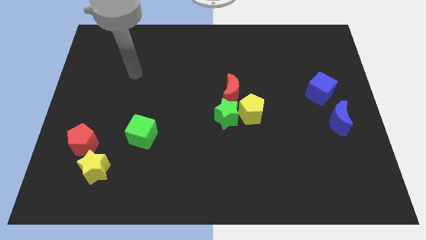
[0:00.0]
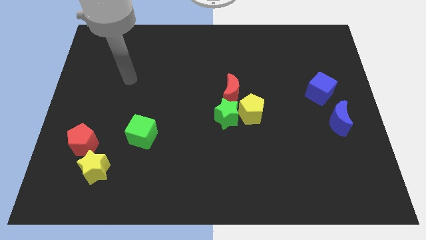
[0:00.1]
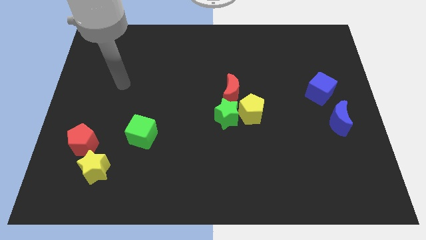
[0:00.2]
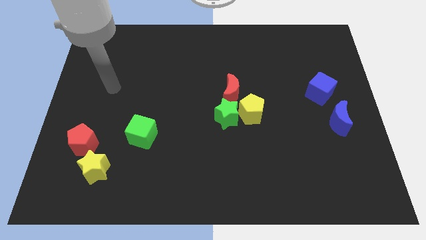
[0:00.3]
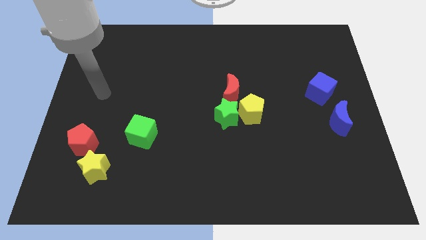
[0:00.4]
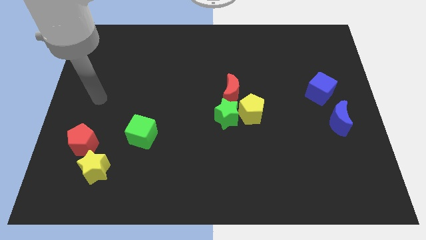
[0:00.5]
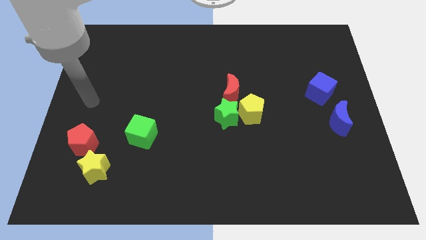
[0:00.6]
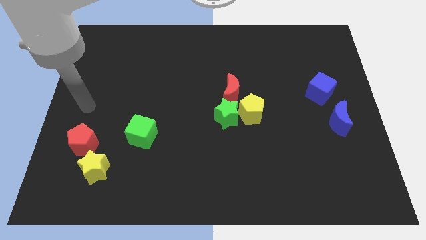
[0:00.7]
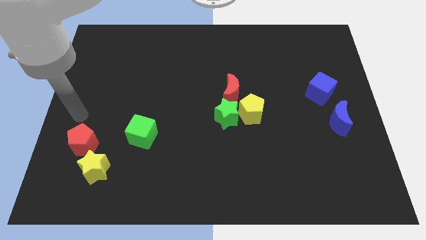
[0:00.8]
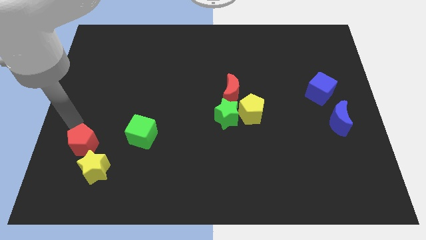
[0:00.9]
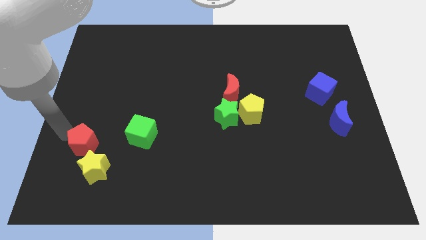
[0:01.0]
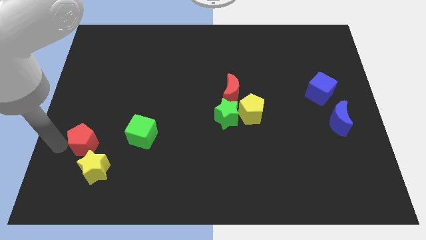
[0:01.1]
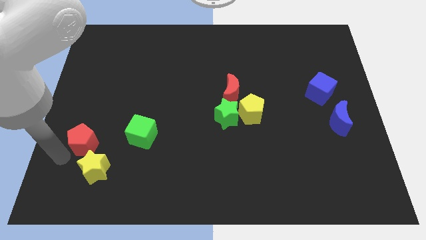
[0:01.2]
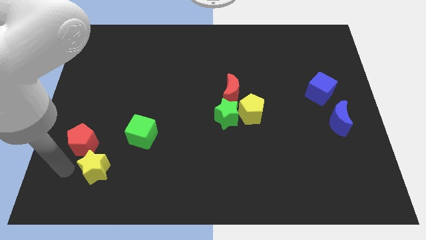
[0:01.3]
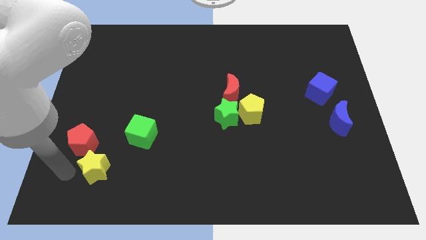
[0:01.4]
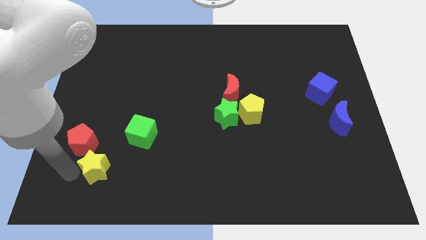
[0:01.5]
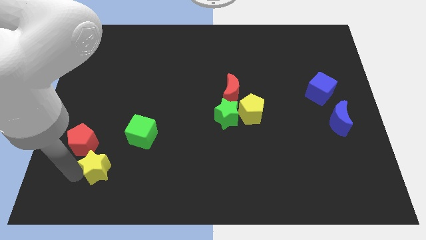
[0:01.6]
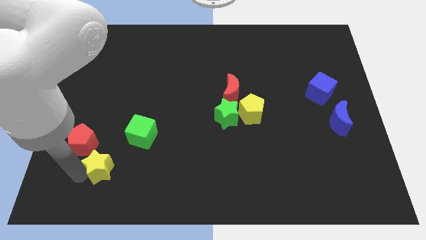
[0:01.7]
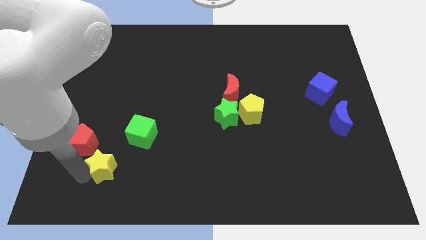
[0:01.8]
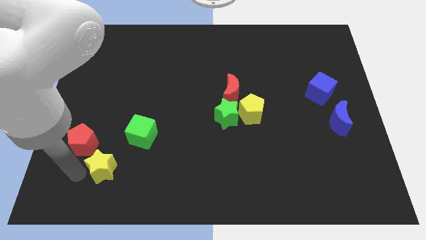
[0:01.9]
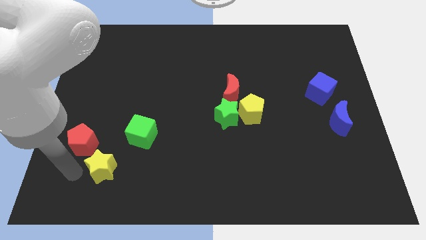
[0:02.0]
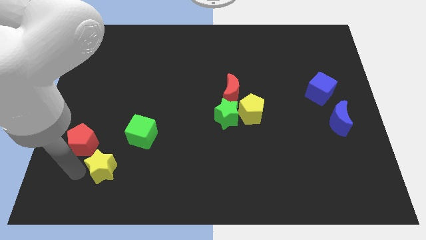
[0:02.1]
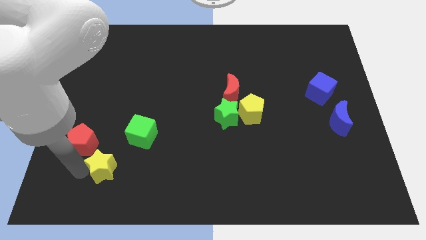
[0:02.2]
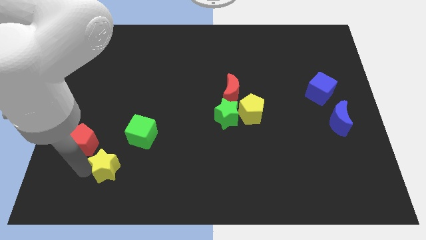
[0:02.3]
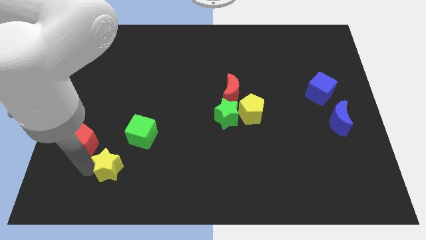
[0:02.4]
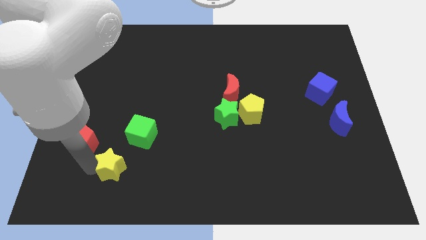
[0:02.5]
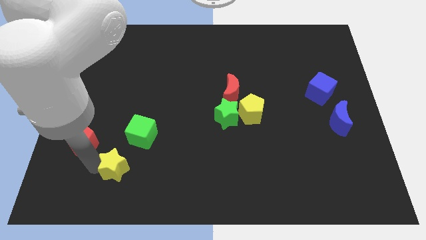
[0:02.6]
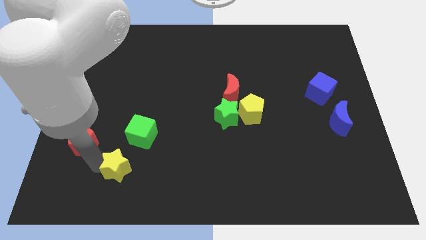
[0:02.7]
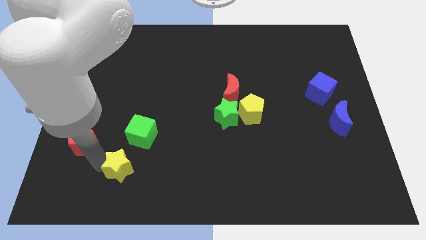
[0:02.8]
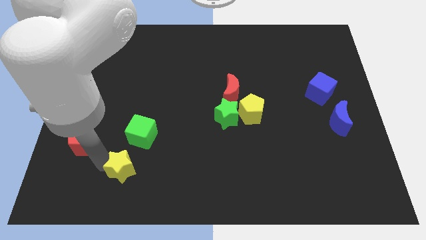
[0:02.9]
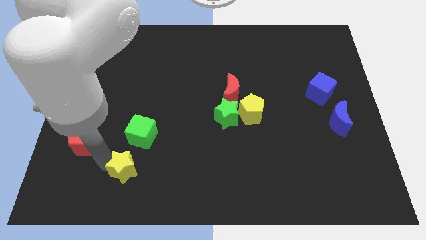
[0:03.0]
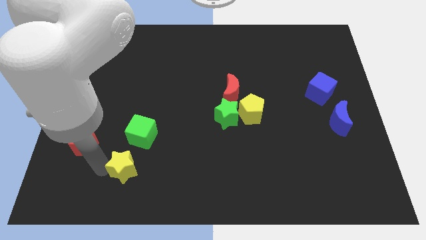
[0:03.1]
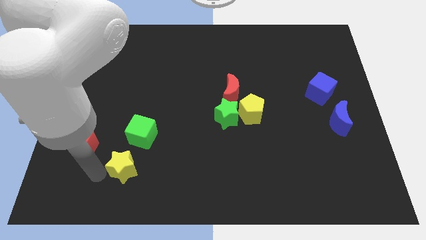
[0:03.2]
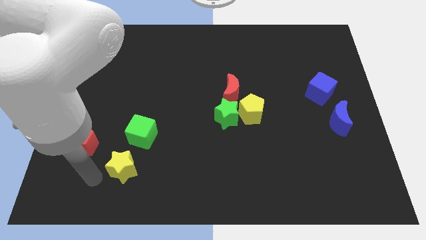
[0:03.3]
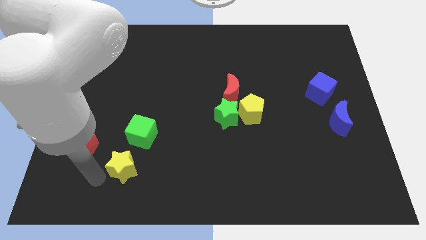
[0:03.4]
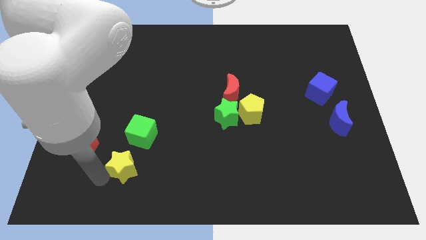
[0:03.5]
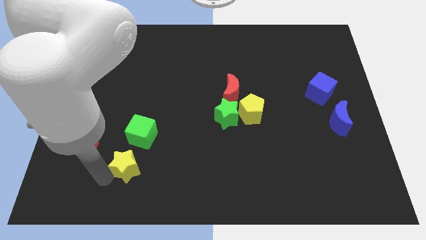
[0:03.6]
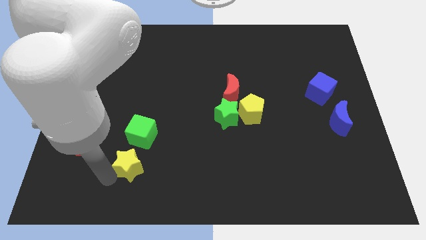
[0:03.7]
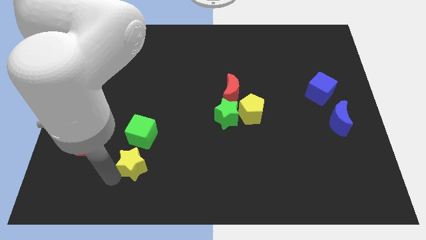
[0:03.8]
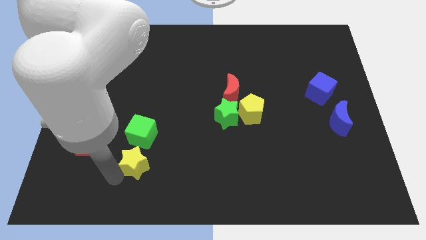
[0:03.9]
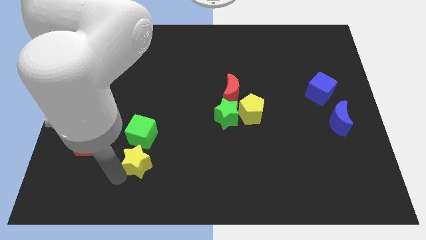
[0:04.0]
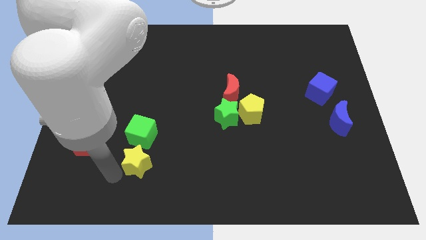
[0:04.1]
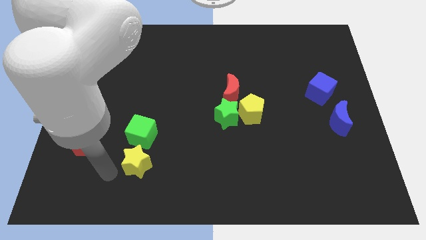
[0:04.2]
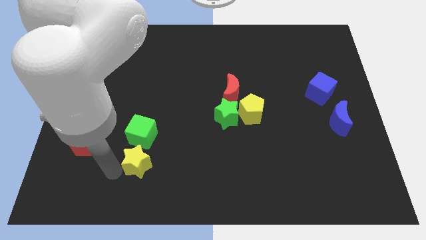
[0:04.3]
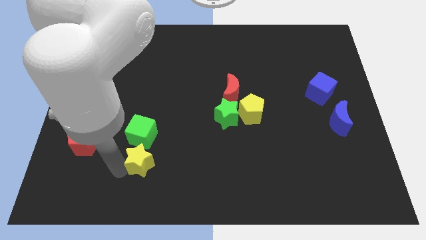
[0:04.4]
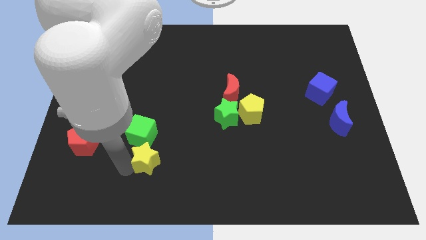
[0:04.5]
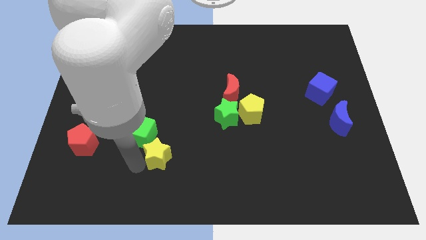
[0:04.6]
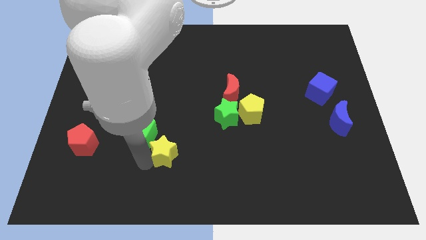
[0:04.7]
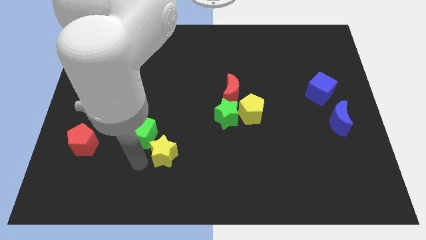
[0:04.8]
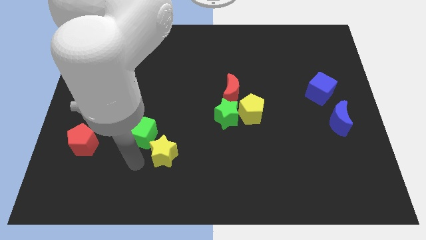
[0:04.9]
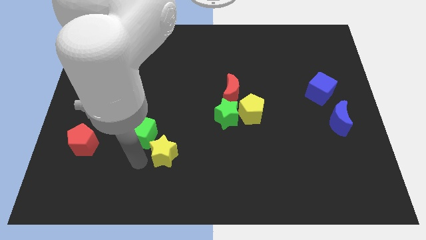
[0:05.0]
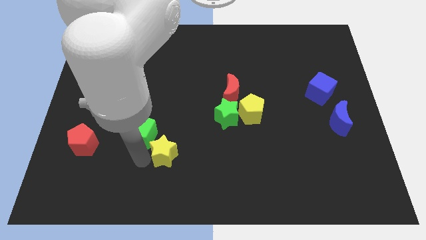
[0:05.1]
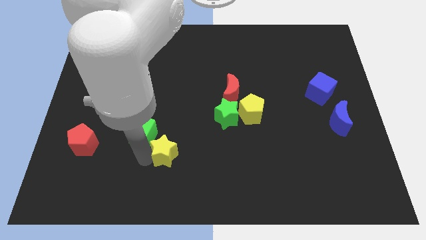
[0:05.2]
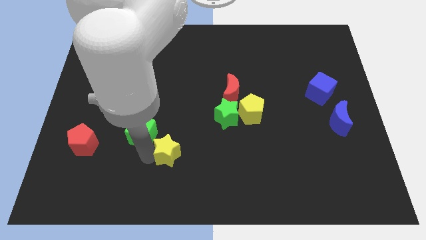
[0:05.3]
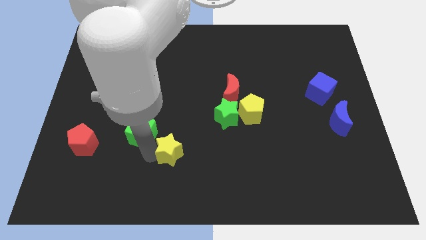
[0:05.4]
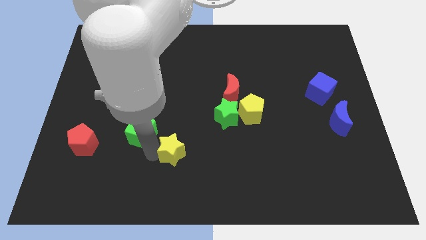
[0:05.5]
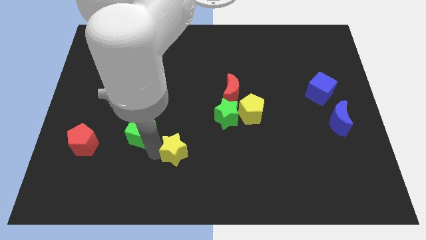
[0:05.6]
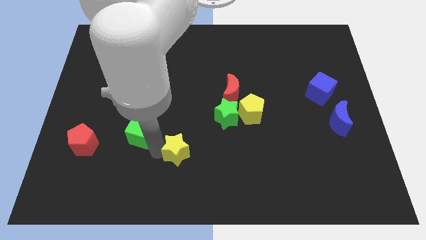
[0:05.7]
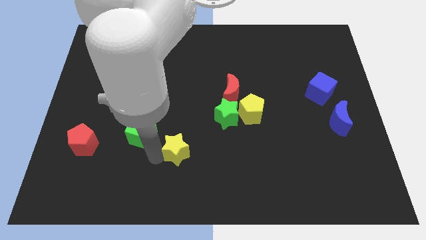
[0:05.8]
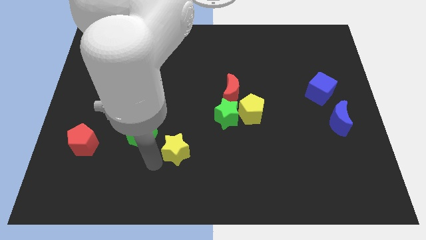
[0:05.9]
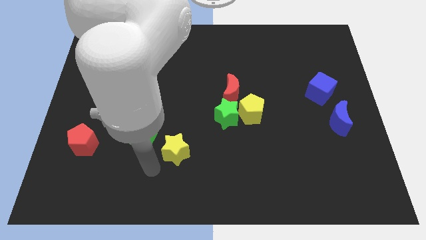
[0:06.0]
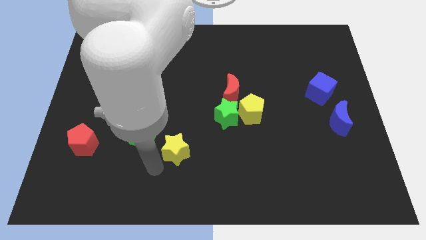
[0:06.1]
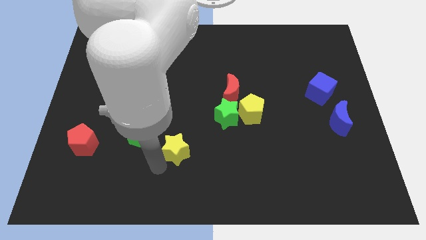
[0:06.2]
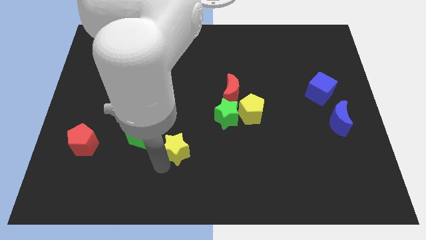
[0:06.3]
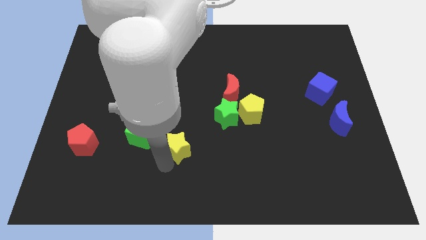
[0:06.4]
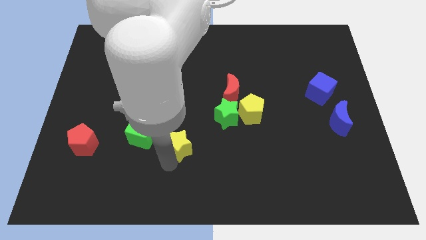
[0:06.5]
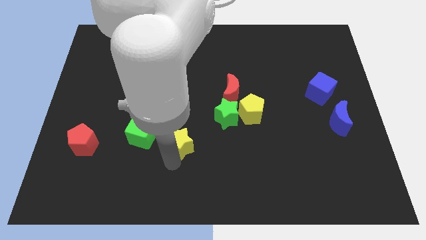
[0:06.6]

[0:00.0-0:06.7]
push the yellow star to the bottom left of the green star

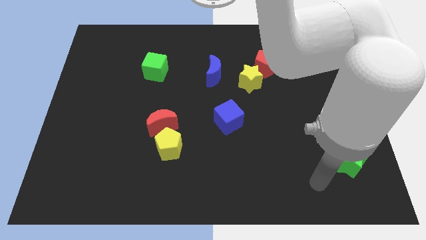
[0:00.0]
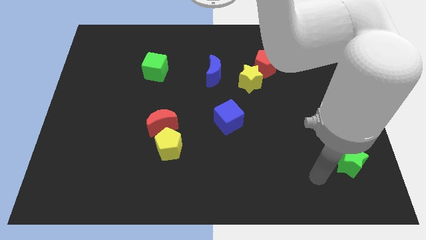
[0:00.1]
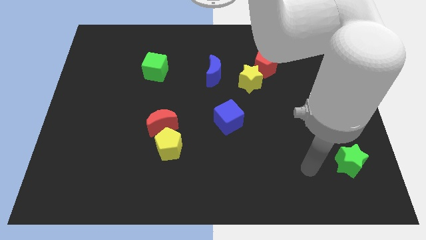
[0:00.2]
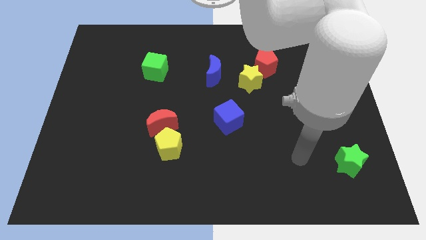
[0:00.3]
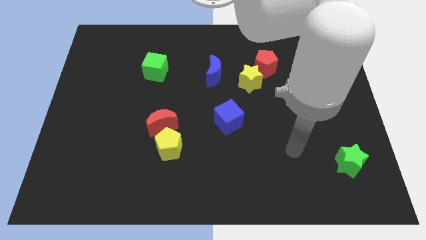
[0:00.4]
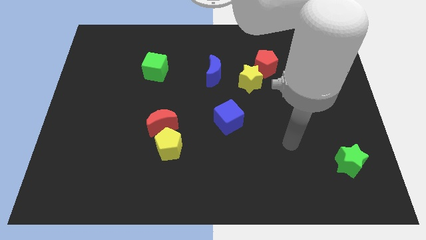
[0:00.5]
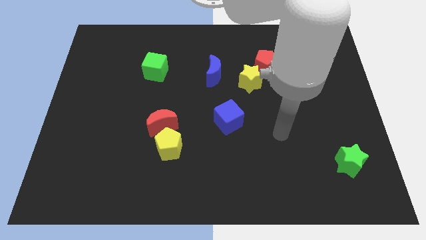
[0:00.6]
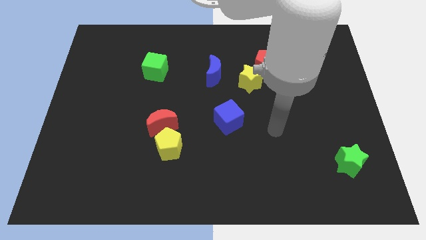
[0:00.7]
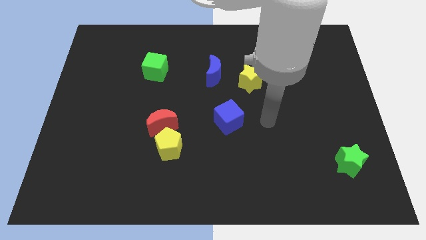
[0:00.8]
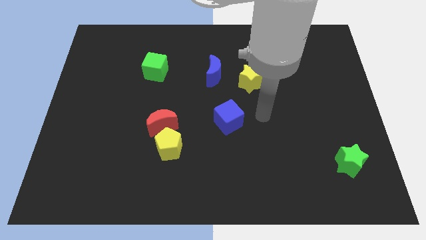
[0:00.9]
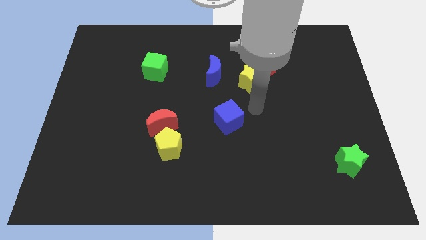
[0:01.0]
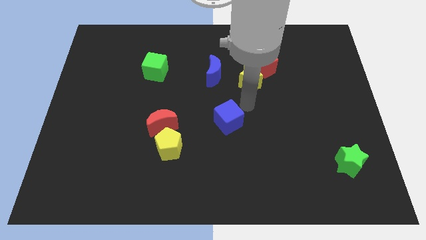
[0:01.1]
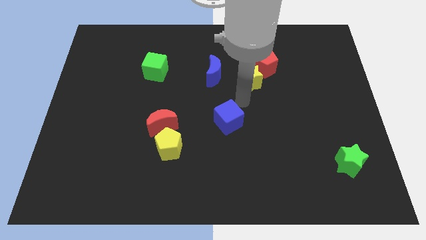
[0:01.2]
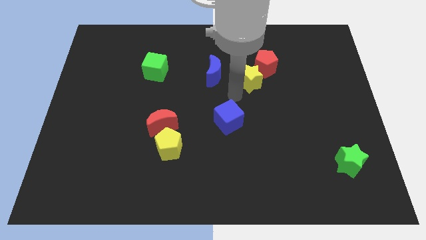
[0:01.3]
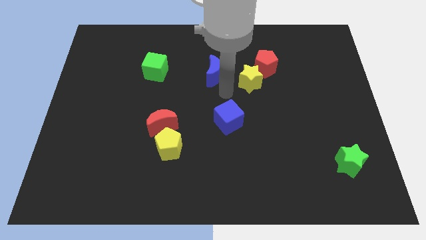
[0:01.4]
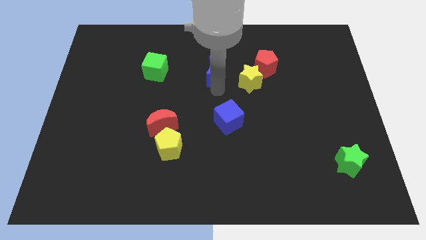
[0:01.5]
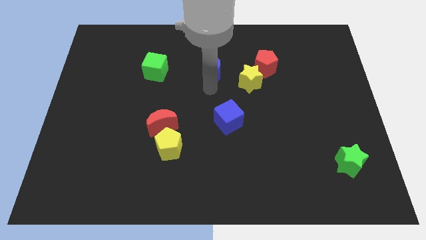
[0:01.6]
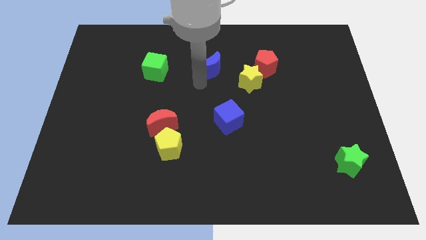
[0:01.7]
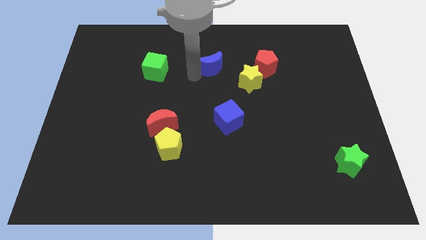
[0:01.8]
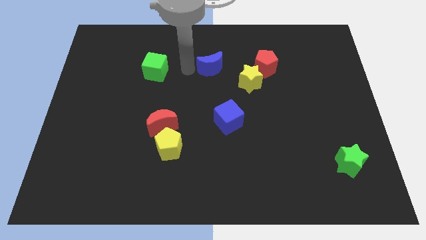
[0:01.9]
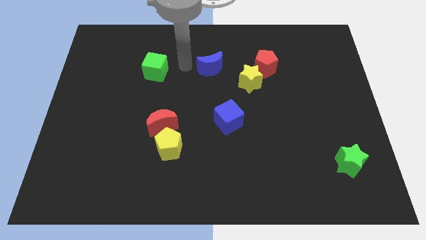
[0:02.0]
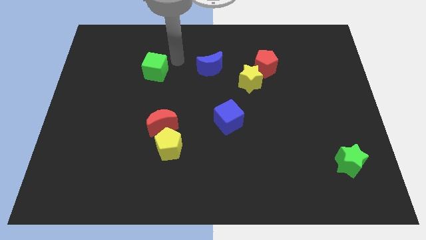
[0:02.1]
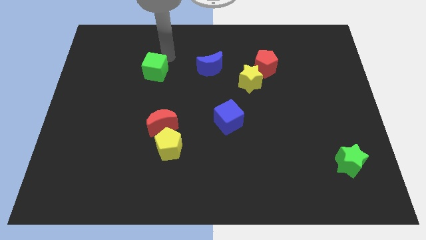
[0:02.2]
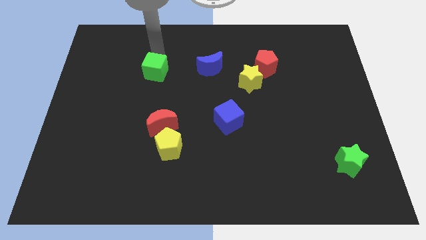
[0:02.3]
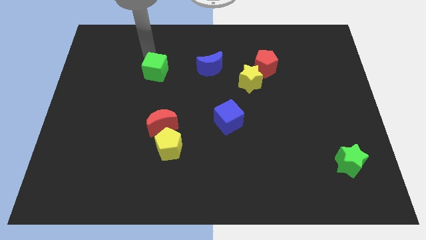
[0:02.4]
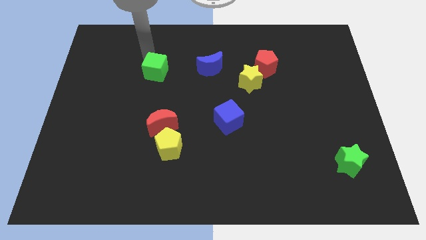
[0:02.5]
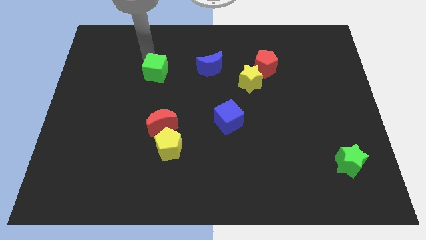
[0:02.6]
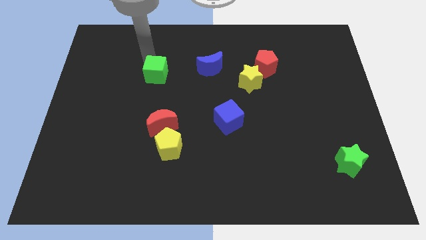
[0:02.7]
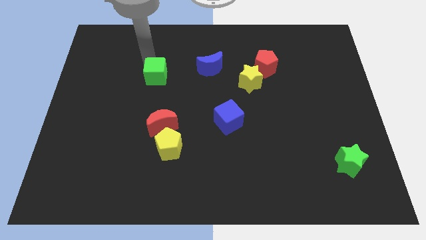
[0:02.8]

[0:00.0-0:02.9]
push the green cube to the top of the red moon
